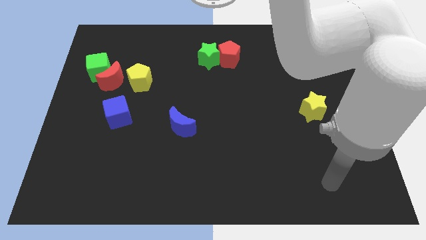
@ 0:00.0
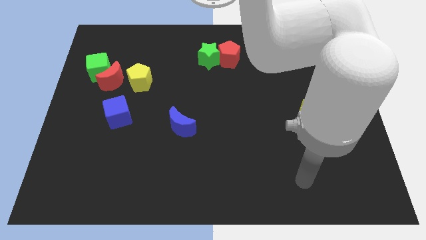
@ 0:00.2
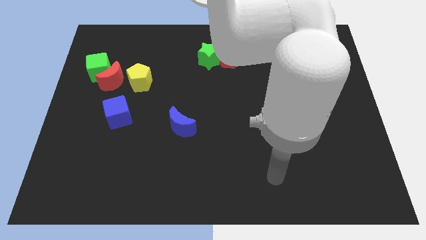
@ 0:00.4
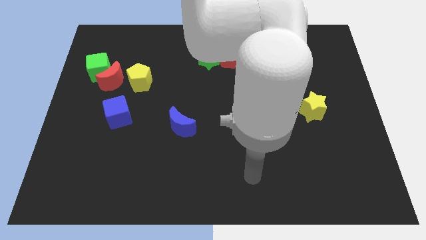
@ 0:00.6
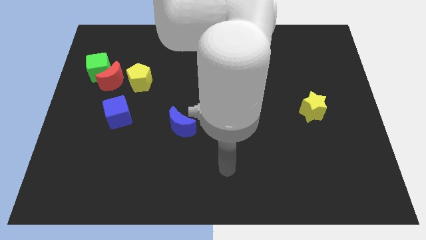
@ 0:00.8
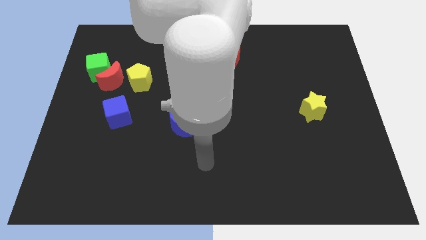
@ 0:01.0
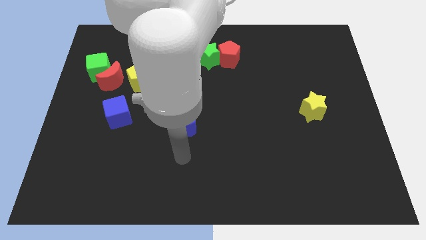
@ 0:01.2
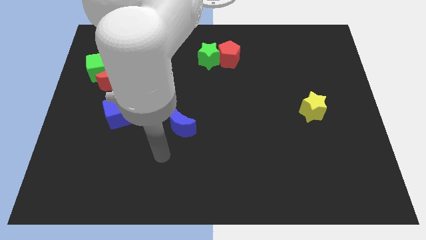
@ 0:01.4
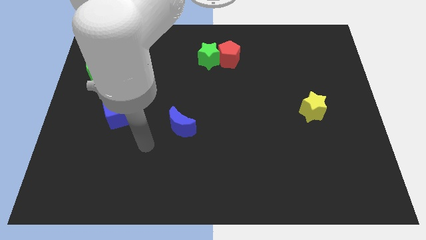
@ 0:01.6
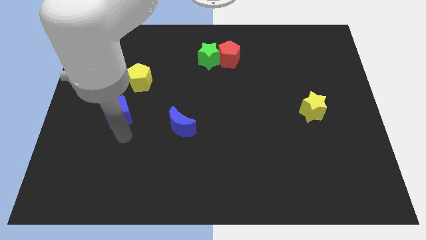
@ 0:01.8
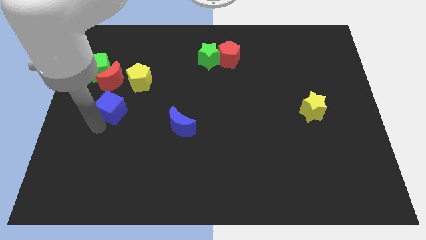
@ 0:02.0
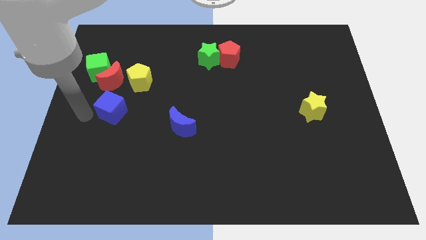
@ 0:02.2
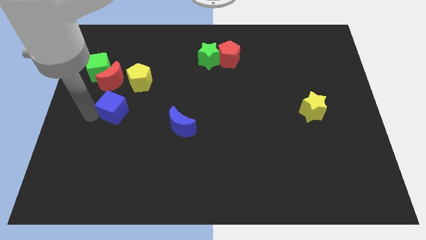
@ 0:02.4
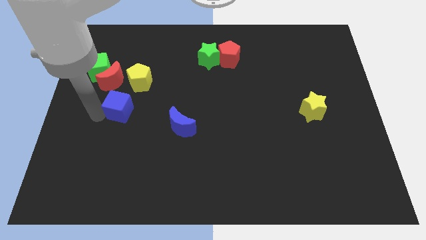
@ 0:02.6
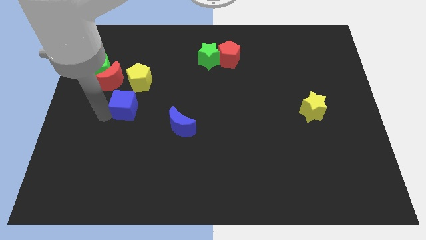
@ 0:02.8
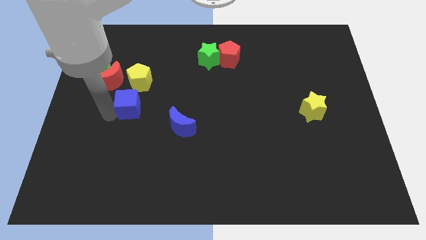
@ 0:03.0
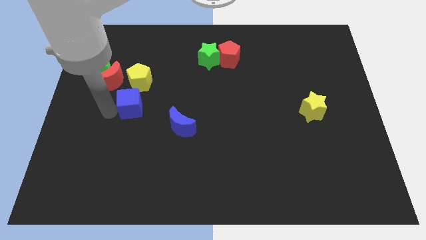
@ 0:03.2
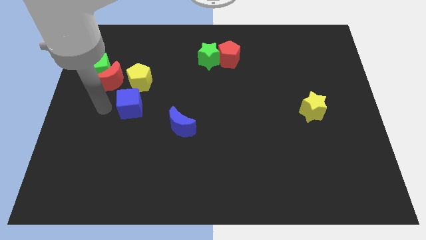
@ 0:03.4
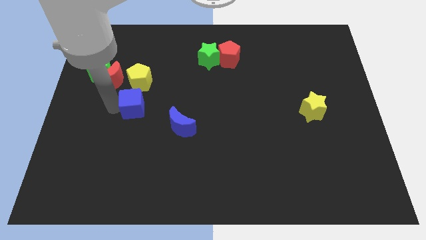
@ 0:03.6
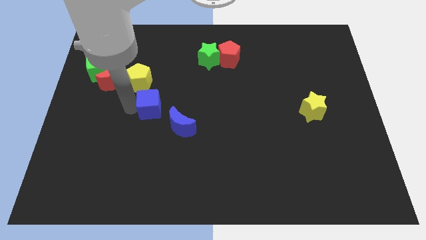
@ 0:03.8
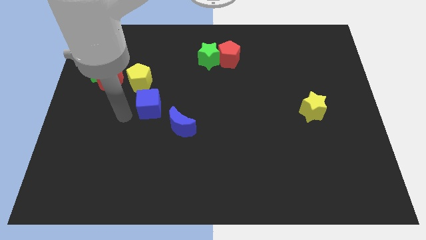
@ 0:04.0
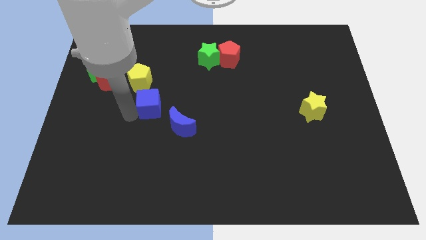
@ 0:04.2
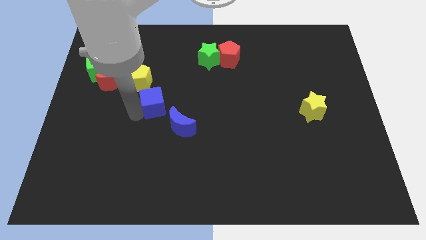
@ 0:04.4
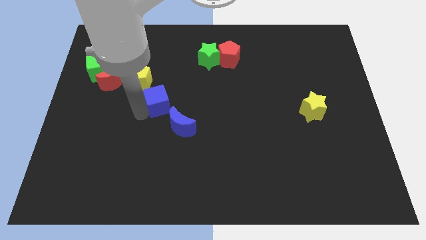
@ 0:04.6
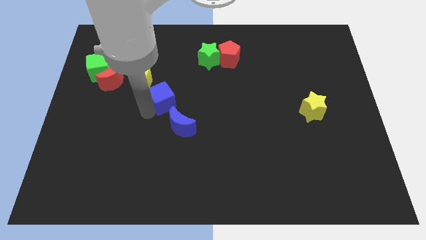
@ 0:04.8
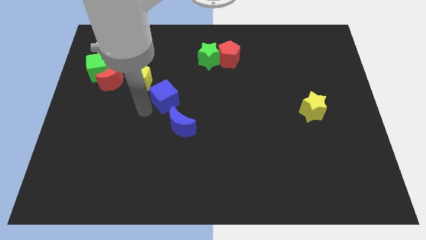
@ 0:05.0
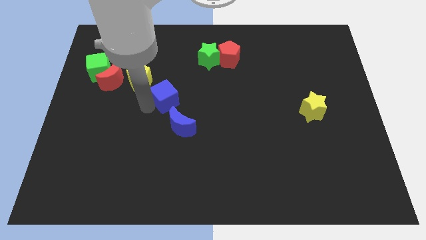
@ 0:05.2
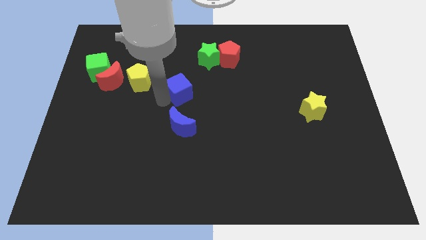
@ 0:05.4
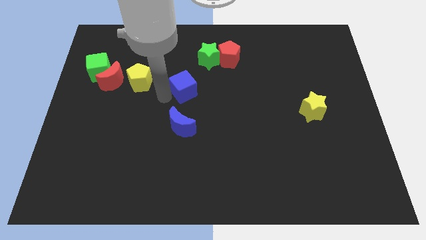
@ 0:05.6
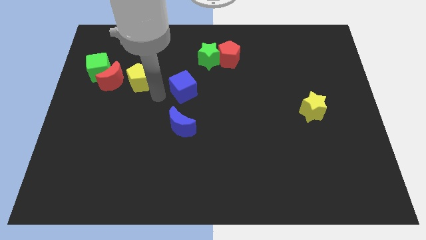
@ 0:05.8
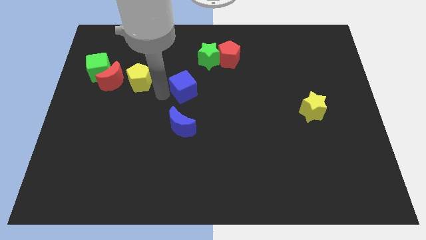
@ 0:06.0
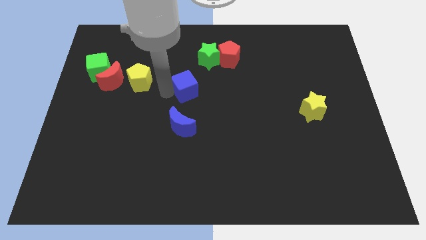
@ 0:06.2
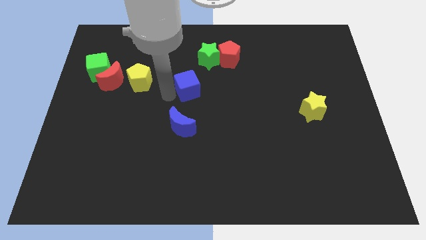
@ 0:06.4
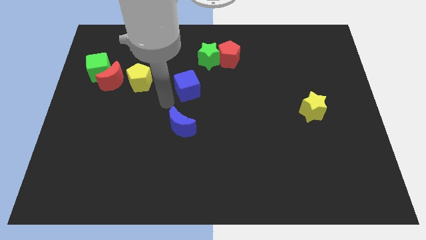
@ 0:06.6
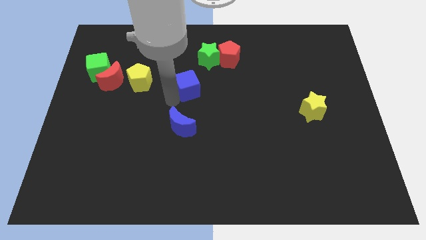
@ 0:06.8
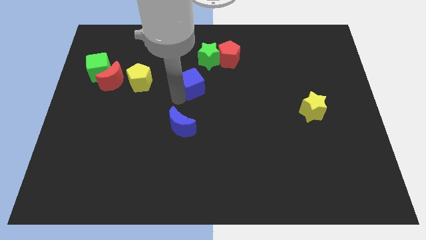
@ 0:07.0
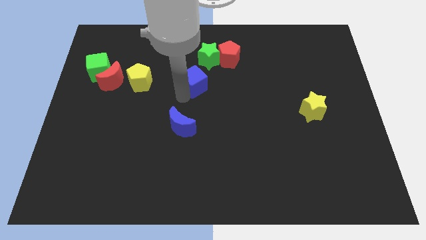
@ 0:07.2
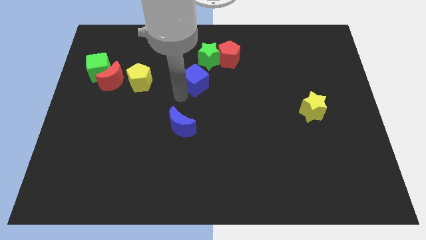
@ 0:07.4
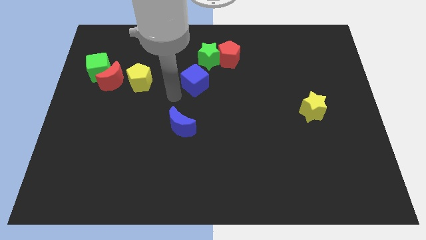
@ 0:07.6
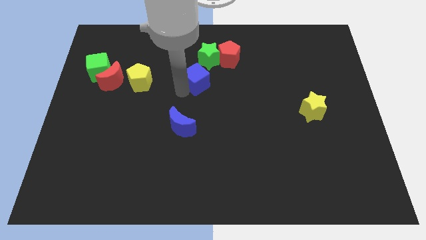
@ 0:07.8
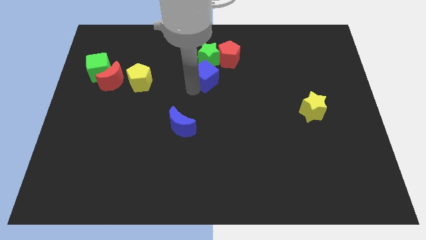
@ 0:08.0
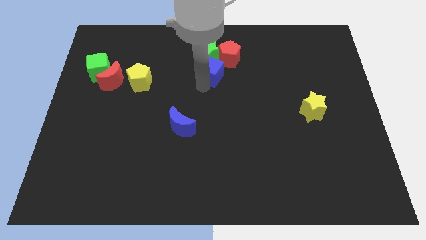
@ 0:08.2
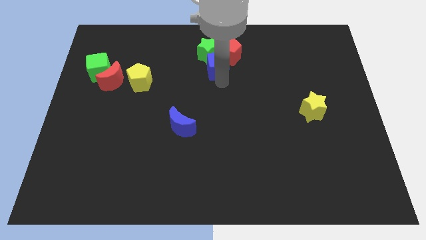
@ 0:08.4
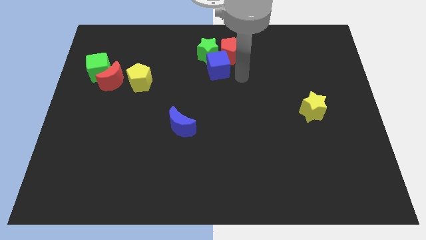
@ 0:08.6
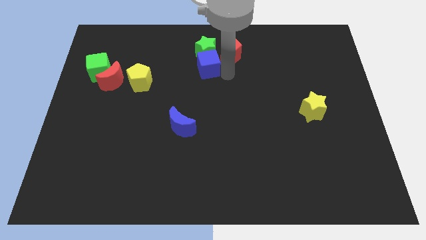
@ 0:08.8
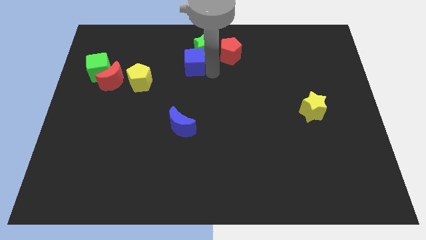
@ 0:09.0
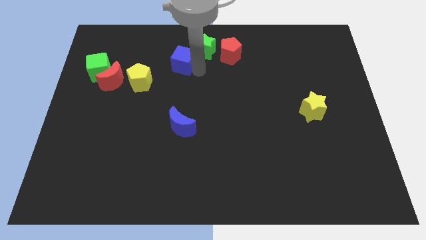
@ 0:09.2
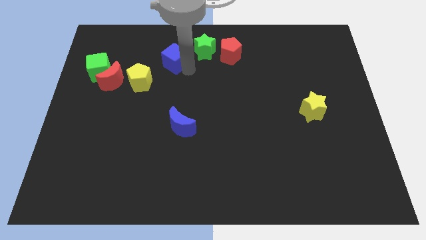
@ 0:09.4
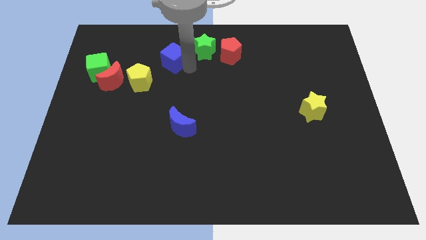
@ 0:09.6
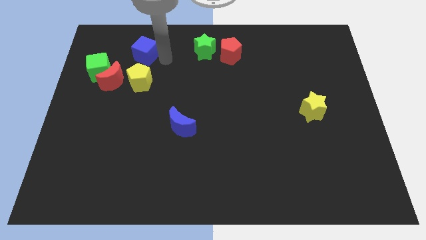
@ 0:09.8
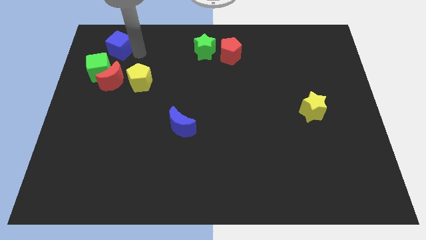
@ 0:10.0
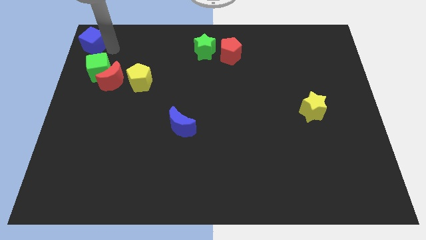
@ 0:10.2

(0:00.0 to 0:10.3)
push the blue cube to the top left

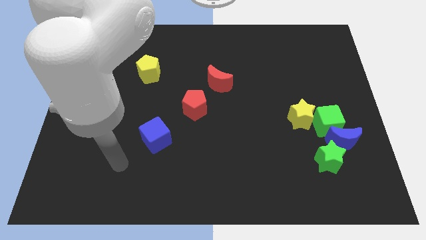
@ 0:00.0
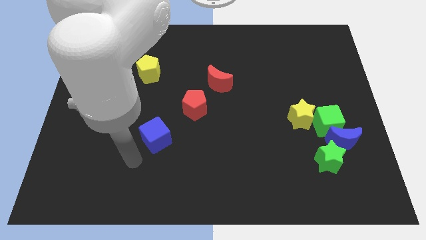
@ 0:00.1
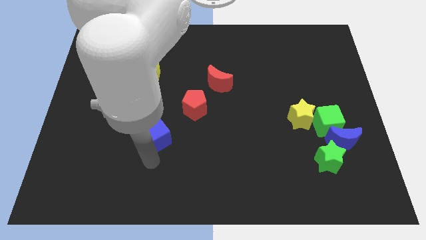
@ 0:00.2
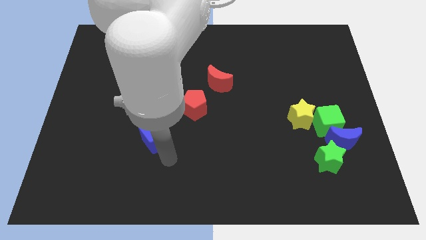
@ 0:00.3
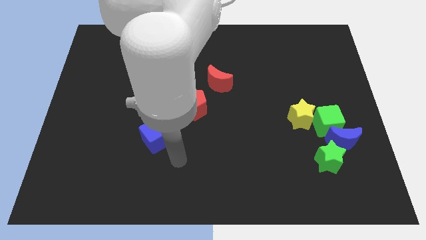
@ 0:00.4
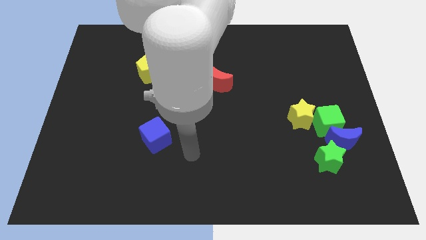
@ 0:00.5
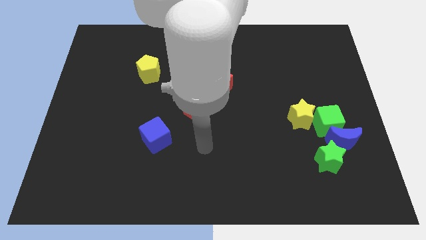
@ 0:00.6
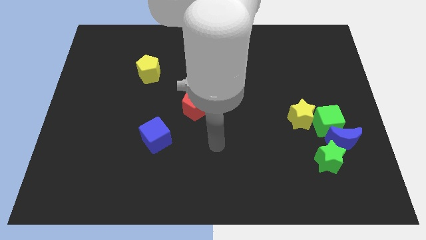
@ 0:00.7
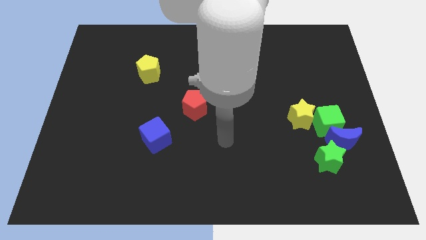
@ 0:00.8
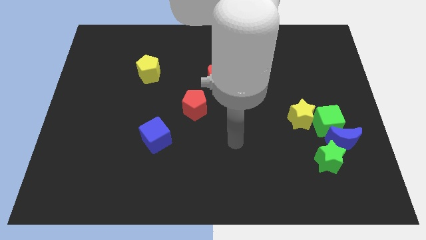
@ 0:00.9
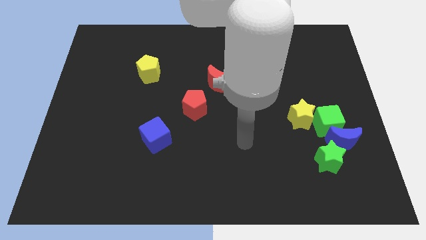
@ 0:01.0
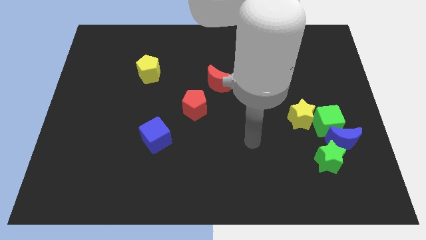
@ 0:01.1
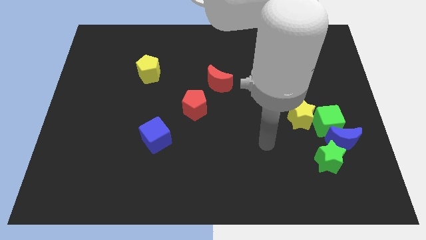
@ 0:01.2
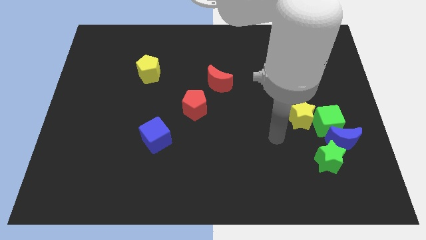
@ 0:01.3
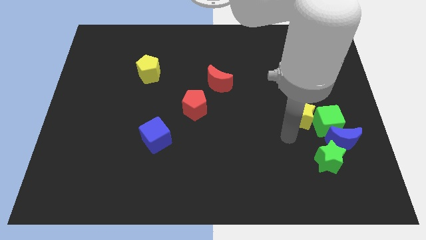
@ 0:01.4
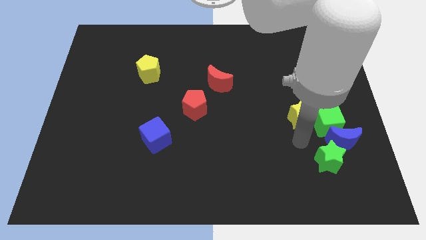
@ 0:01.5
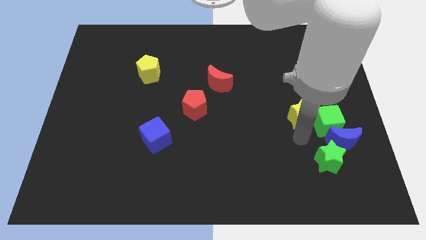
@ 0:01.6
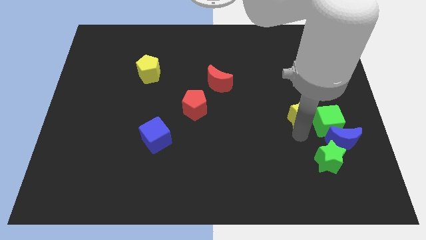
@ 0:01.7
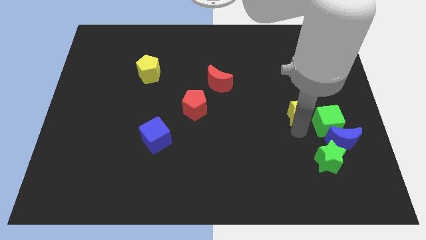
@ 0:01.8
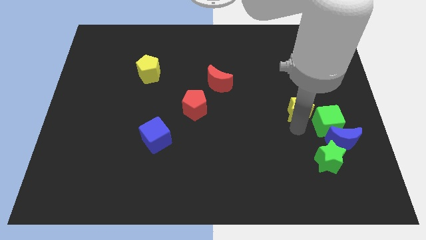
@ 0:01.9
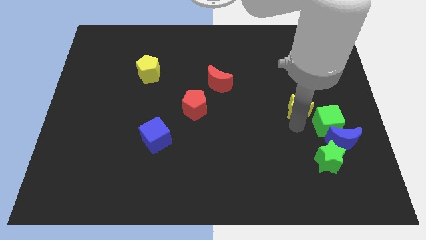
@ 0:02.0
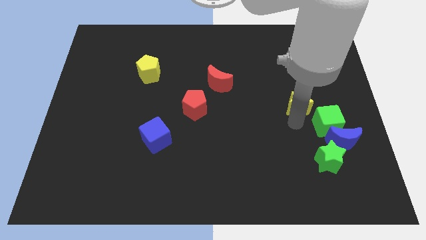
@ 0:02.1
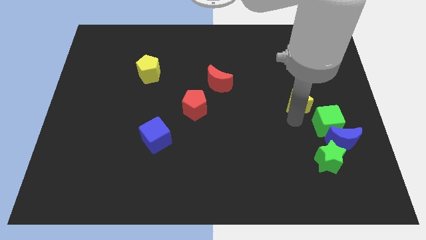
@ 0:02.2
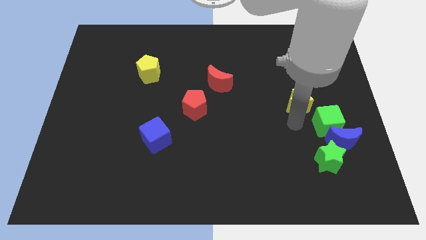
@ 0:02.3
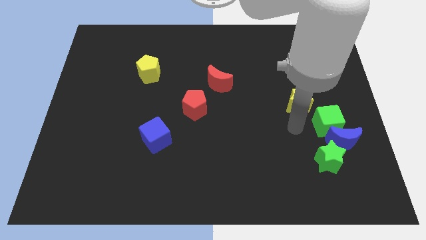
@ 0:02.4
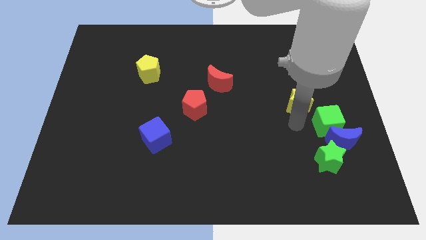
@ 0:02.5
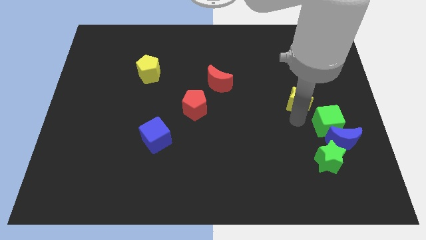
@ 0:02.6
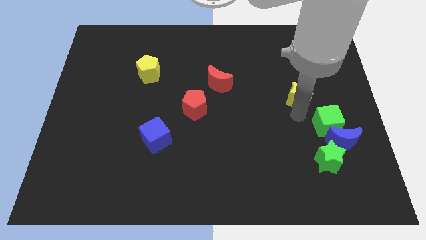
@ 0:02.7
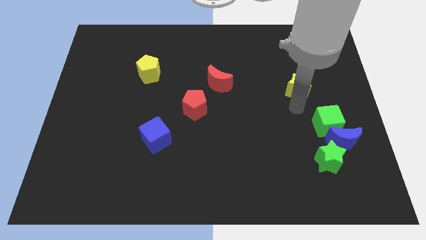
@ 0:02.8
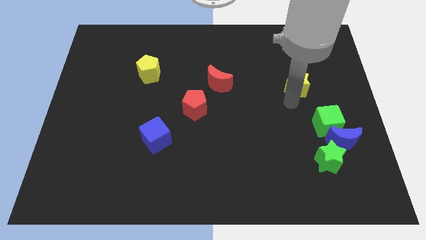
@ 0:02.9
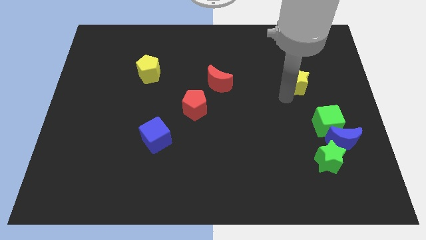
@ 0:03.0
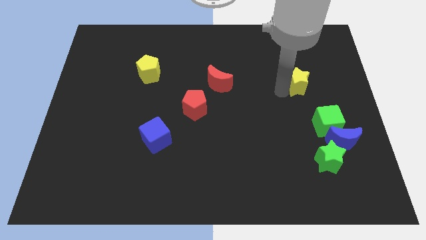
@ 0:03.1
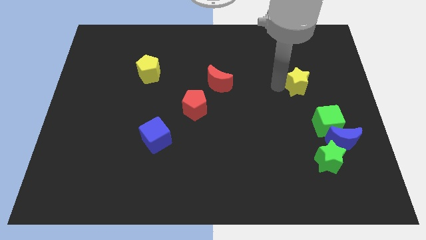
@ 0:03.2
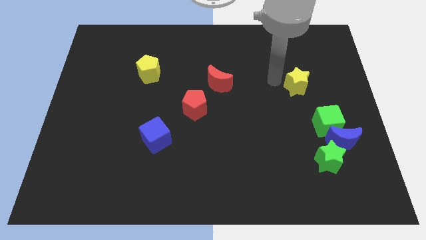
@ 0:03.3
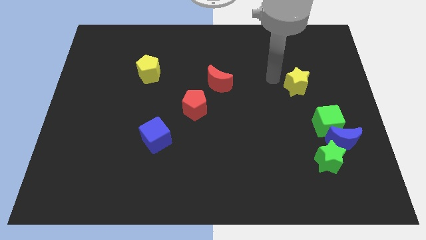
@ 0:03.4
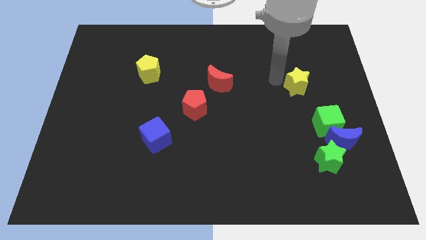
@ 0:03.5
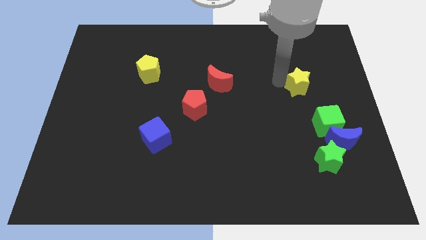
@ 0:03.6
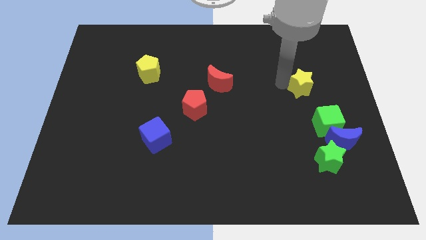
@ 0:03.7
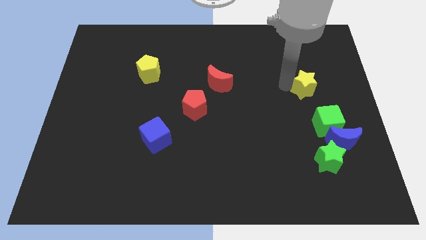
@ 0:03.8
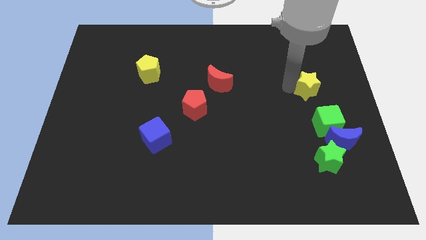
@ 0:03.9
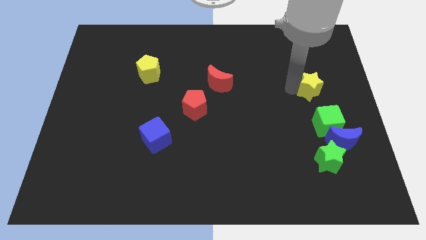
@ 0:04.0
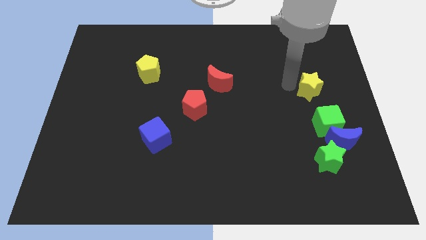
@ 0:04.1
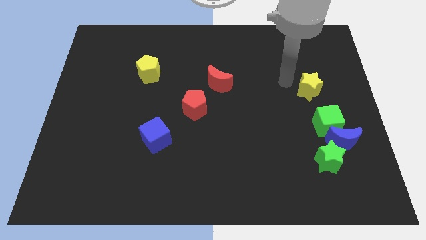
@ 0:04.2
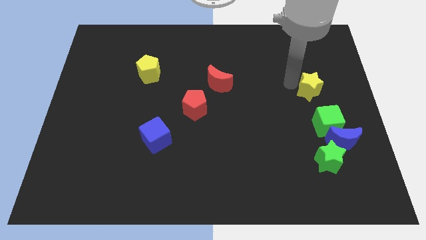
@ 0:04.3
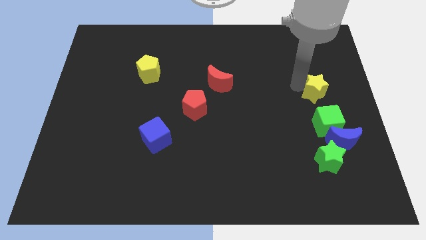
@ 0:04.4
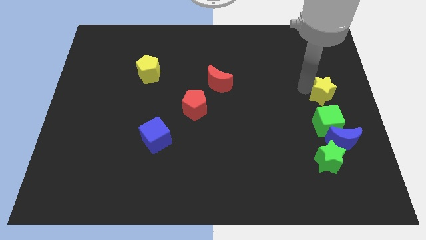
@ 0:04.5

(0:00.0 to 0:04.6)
slide the yellow star to the right side
